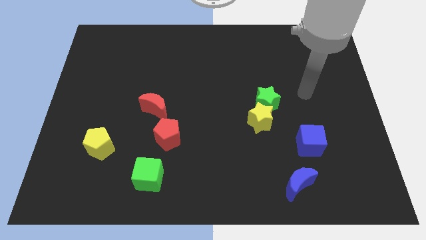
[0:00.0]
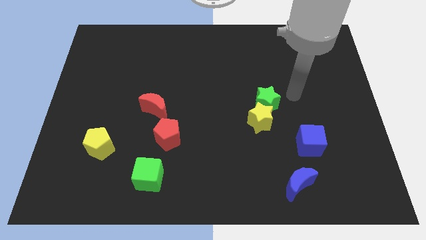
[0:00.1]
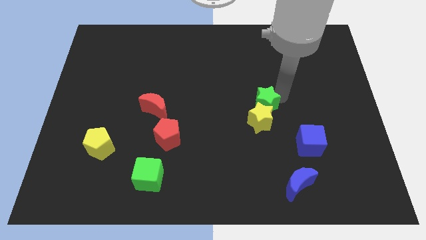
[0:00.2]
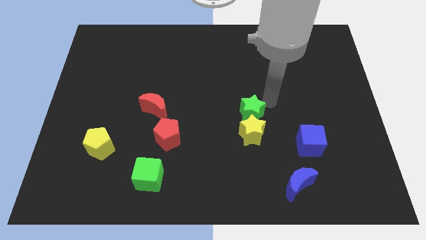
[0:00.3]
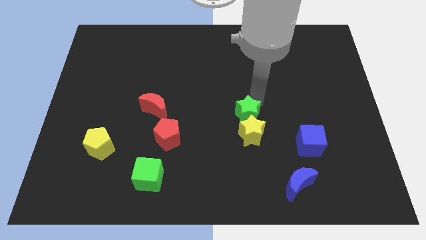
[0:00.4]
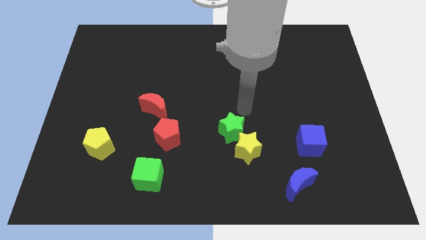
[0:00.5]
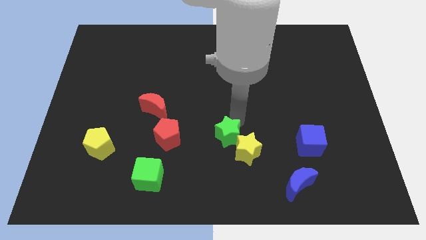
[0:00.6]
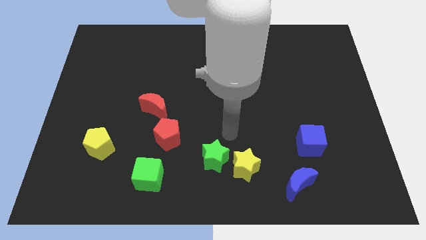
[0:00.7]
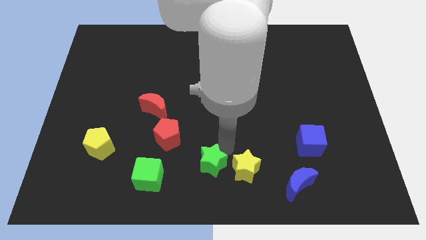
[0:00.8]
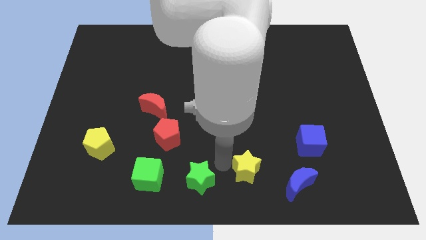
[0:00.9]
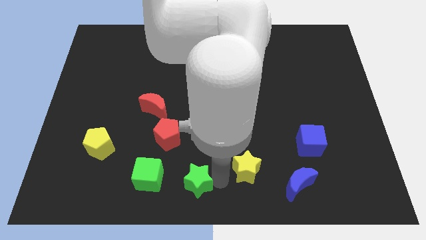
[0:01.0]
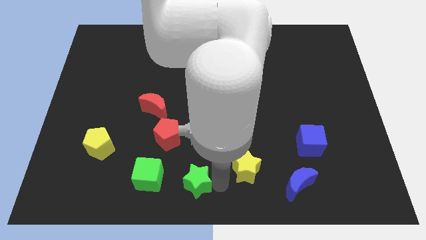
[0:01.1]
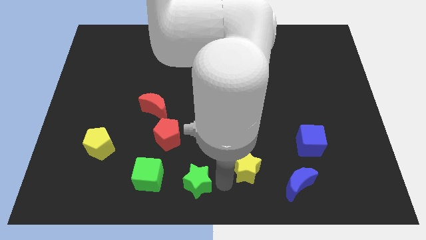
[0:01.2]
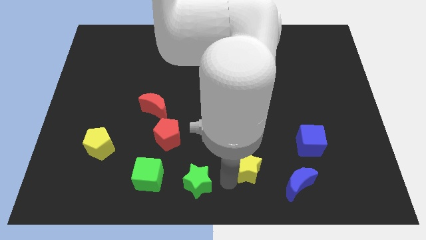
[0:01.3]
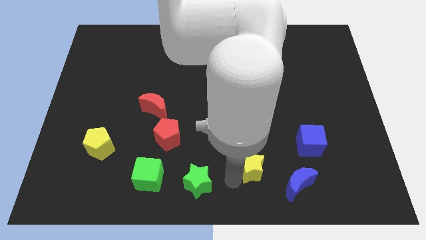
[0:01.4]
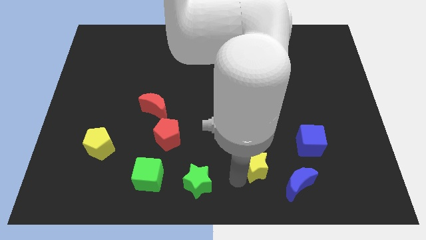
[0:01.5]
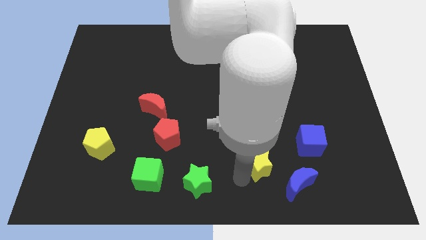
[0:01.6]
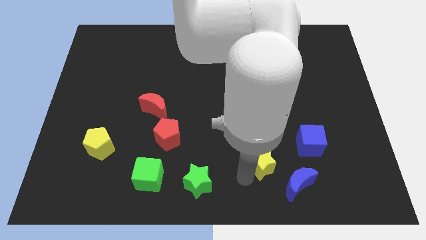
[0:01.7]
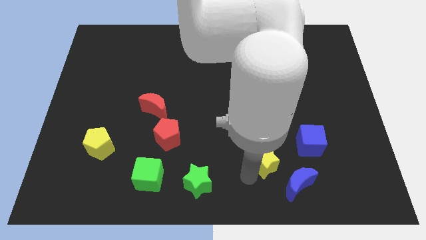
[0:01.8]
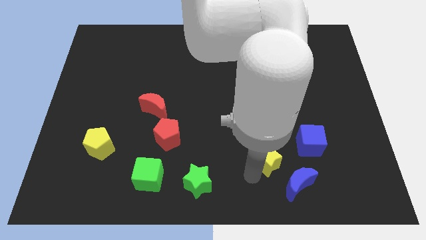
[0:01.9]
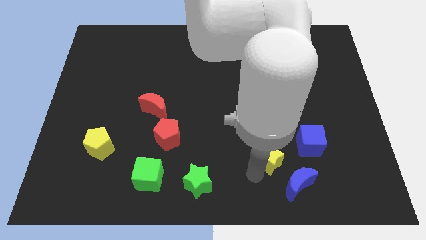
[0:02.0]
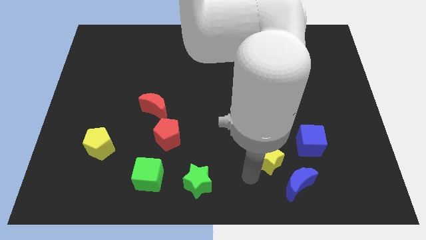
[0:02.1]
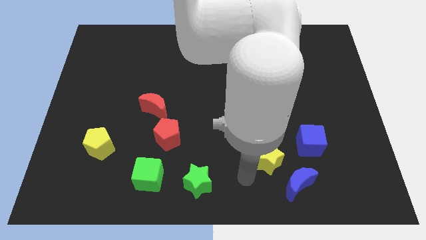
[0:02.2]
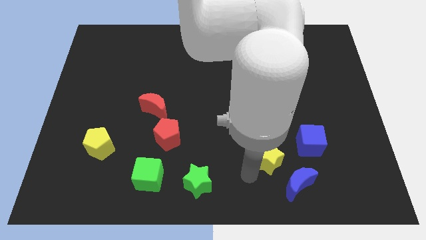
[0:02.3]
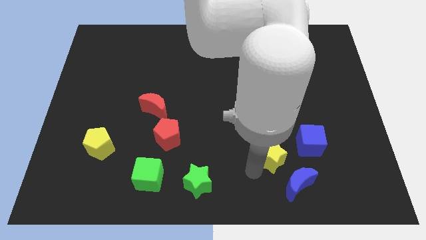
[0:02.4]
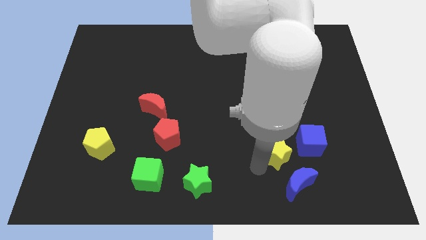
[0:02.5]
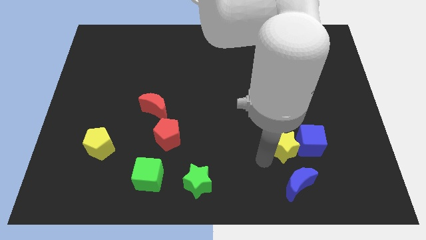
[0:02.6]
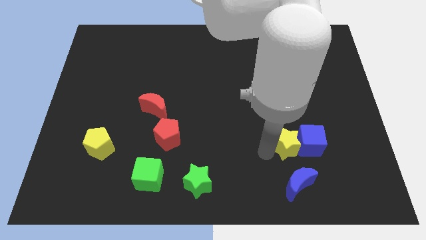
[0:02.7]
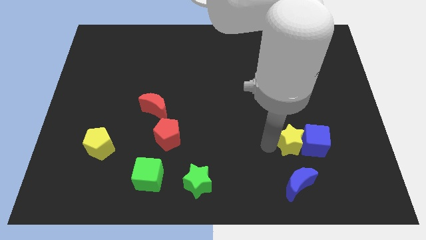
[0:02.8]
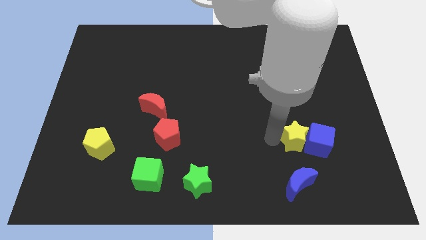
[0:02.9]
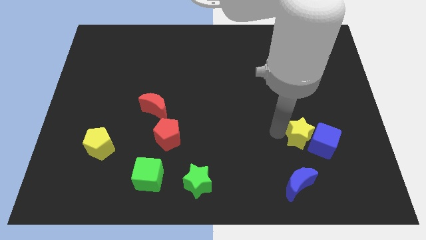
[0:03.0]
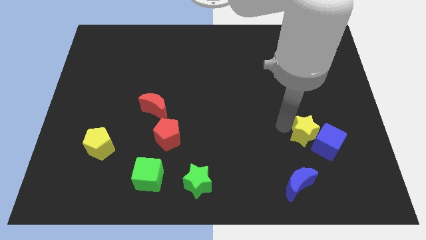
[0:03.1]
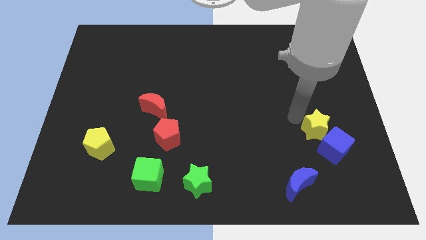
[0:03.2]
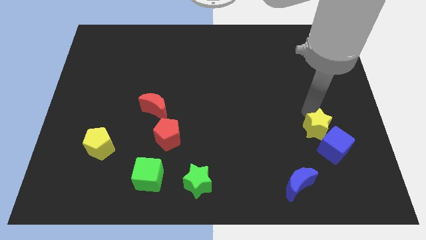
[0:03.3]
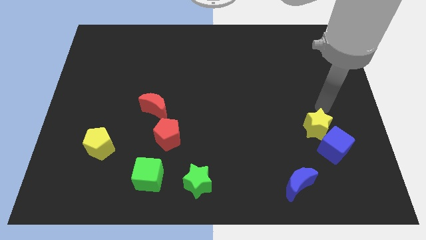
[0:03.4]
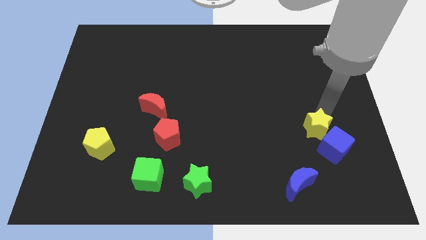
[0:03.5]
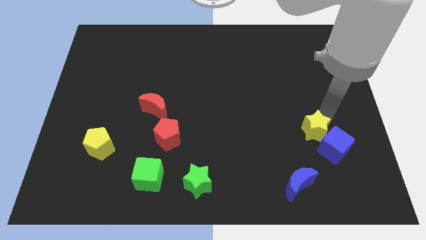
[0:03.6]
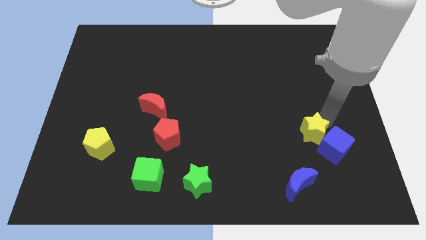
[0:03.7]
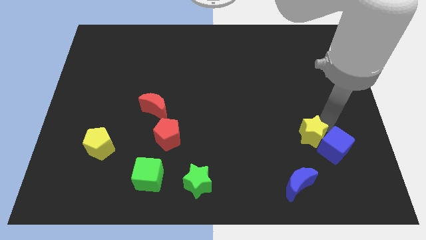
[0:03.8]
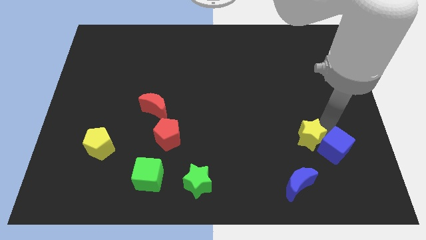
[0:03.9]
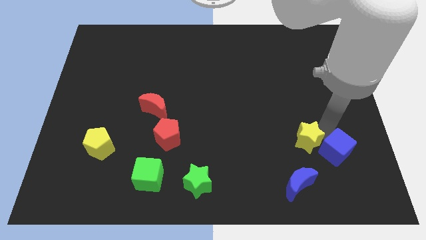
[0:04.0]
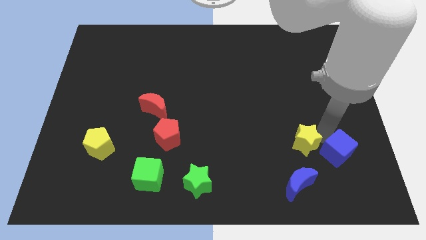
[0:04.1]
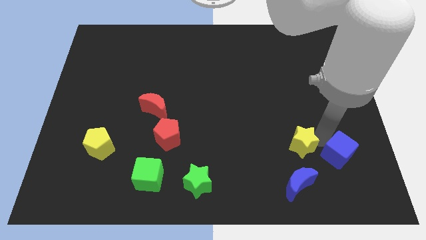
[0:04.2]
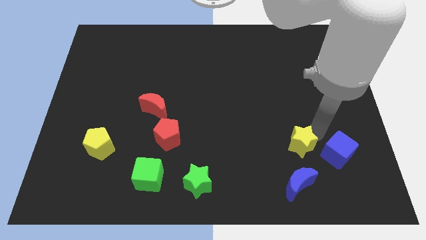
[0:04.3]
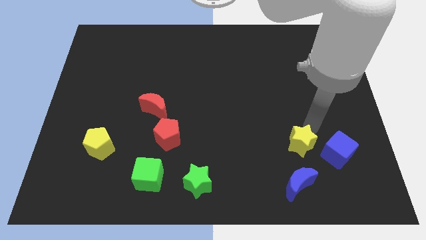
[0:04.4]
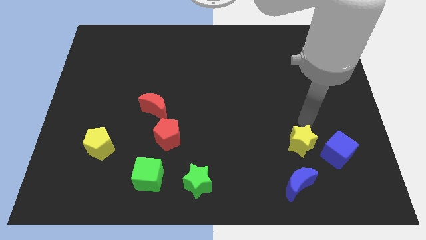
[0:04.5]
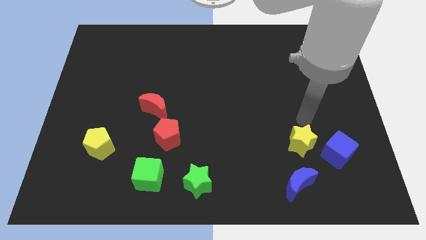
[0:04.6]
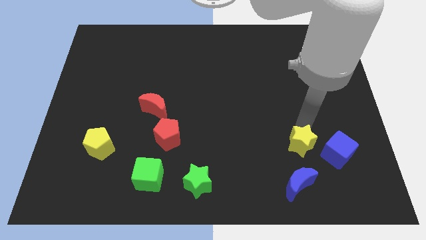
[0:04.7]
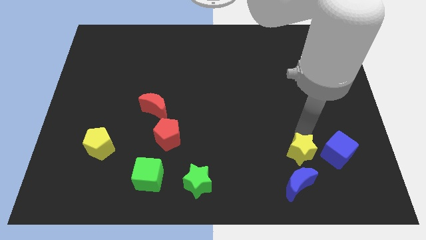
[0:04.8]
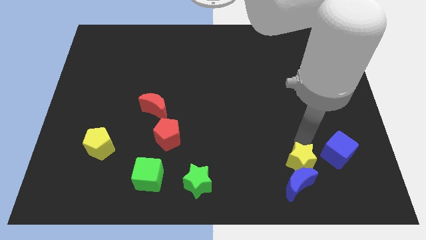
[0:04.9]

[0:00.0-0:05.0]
push the yellow star next to the blue moon

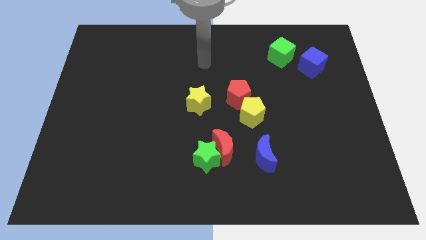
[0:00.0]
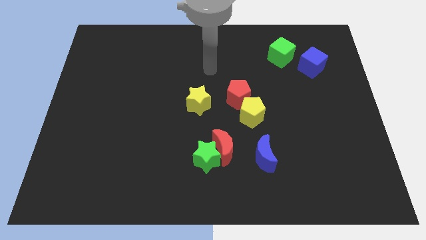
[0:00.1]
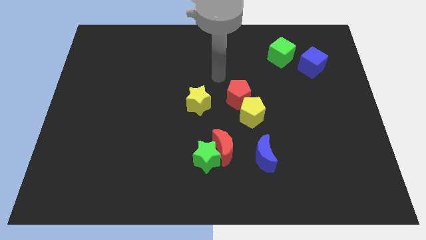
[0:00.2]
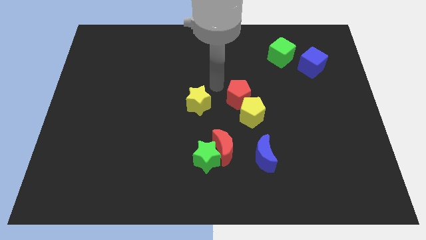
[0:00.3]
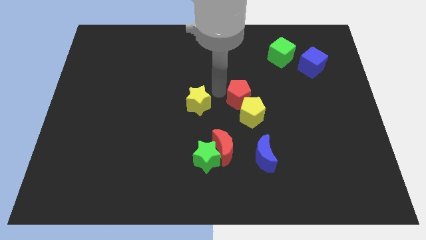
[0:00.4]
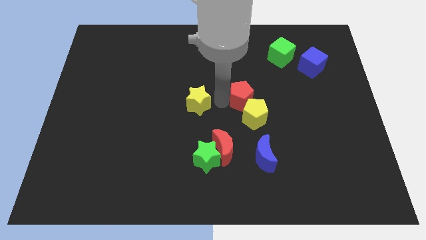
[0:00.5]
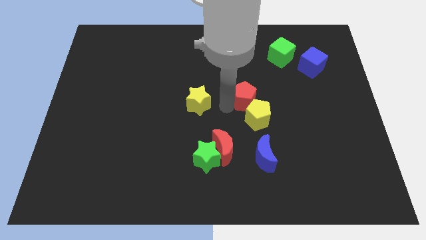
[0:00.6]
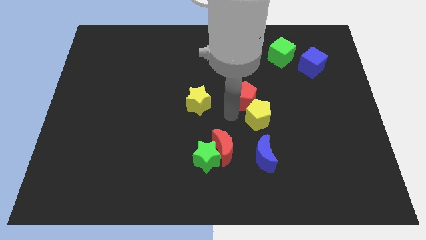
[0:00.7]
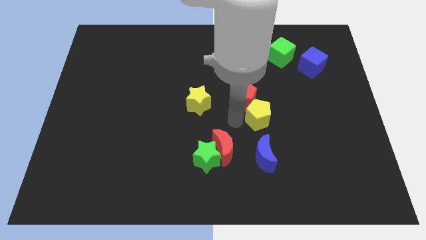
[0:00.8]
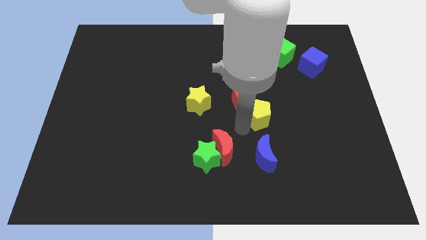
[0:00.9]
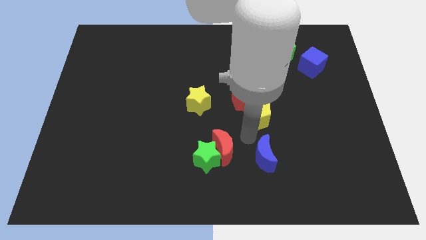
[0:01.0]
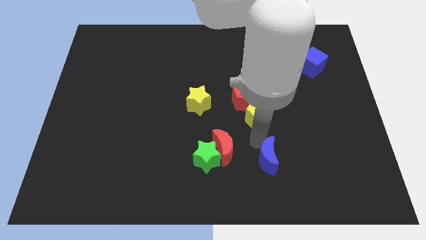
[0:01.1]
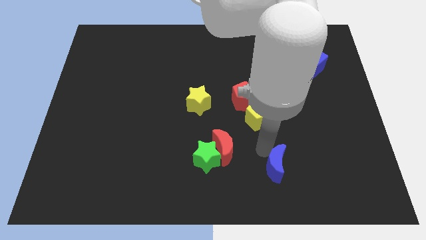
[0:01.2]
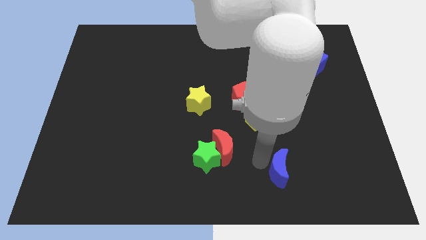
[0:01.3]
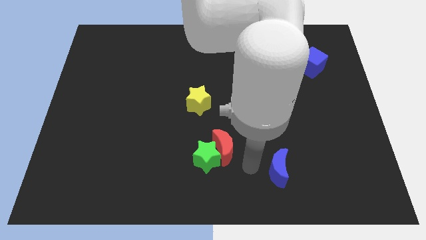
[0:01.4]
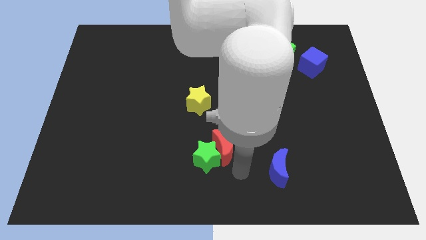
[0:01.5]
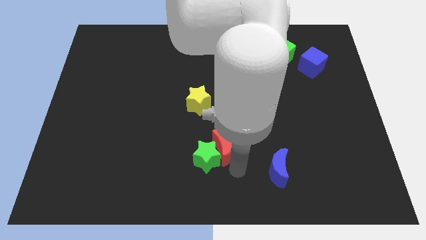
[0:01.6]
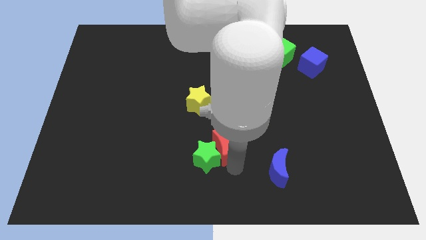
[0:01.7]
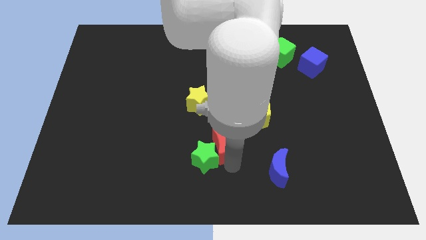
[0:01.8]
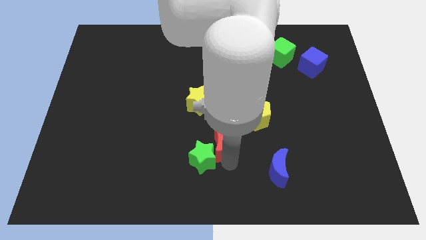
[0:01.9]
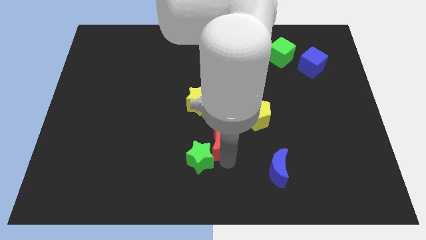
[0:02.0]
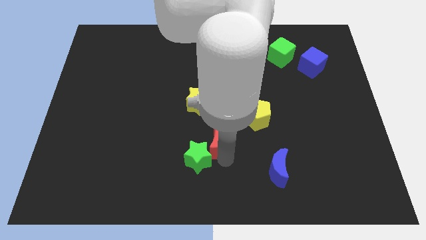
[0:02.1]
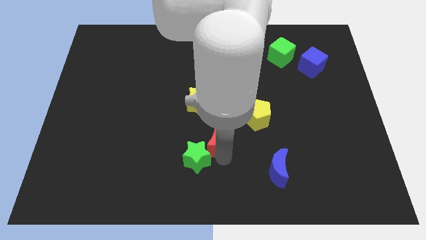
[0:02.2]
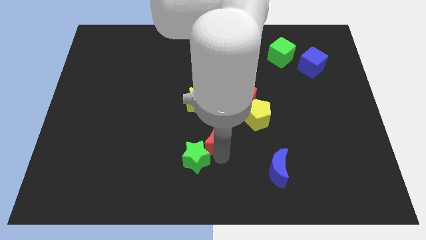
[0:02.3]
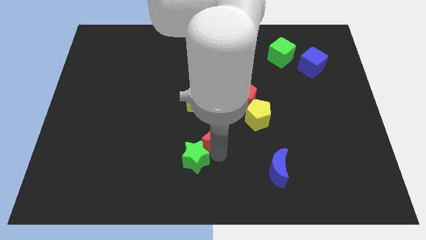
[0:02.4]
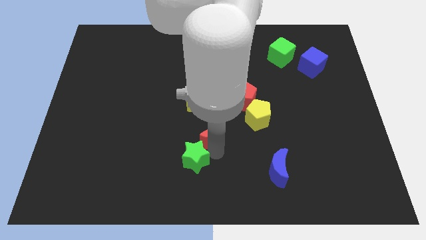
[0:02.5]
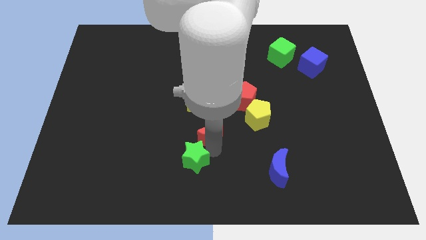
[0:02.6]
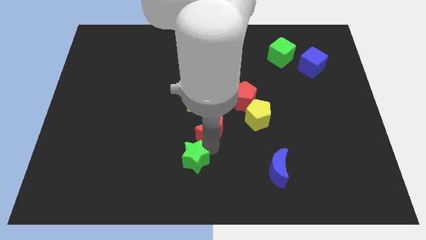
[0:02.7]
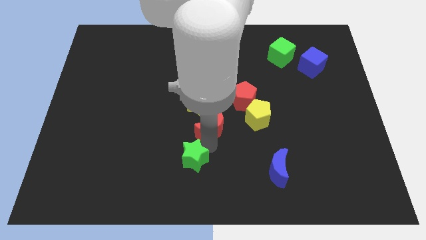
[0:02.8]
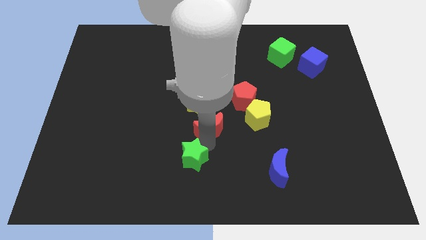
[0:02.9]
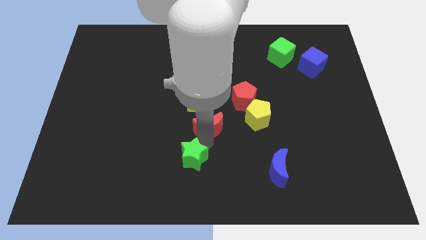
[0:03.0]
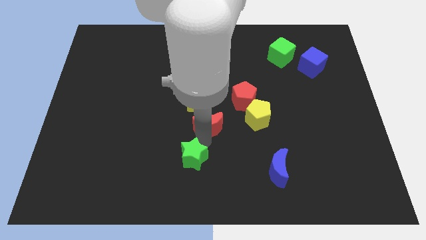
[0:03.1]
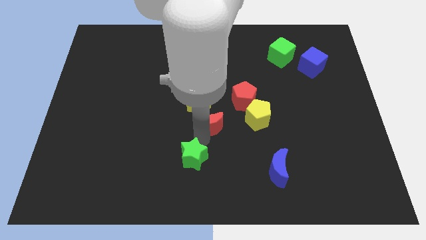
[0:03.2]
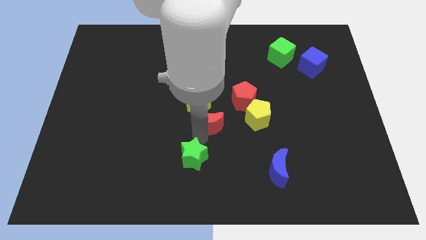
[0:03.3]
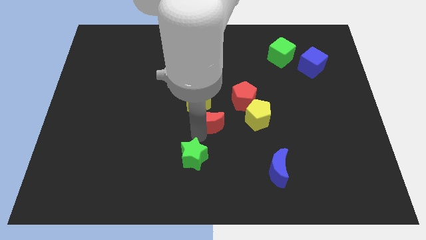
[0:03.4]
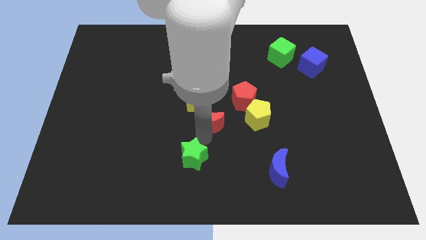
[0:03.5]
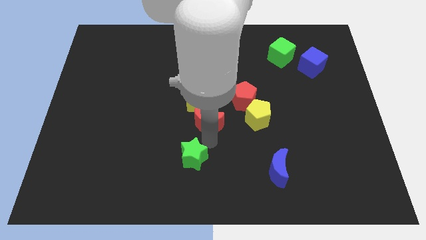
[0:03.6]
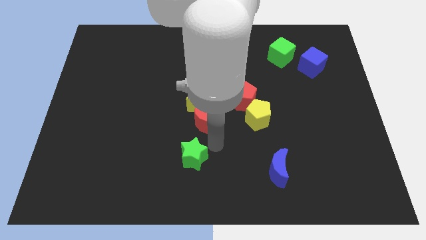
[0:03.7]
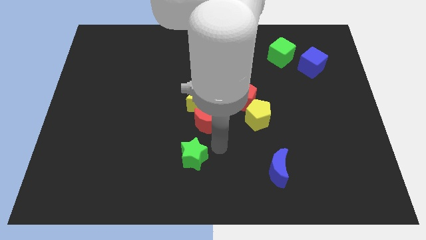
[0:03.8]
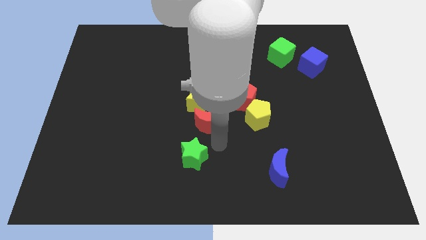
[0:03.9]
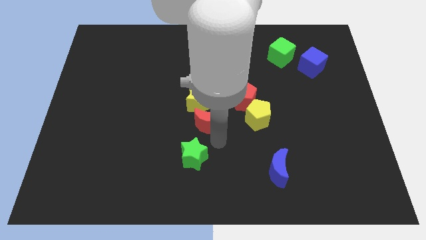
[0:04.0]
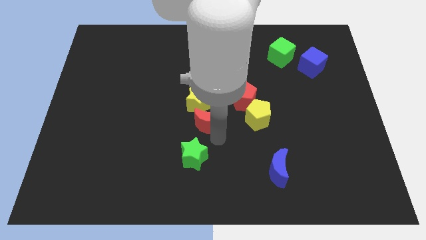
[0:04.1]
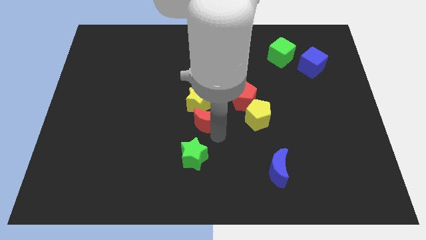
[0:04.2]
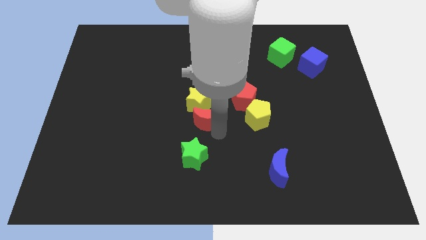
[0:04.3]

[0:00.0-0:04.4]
put the red moon close to the yellow star
